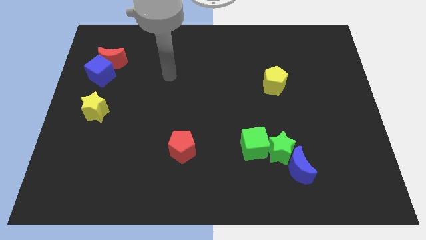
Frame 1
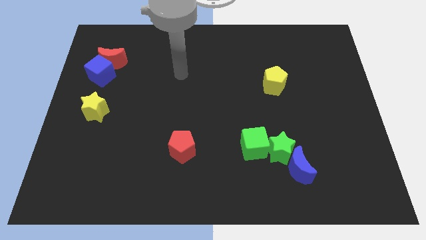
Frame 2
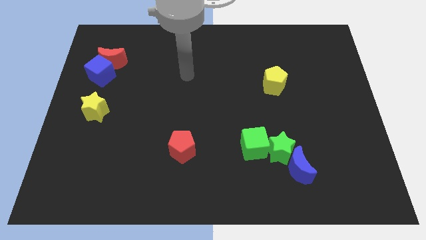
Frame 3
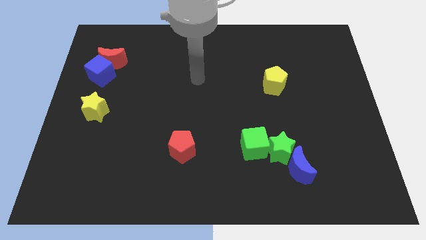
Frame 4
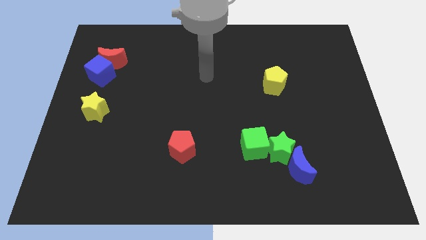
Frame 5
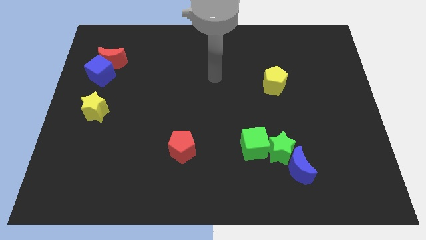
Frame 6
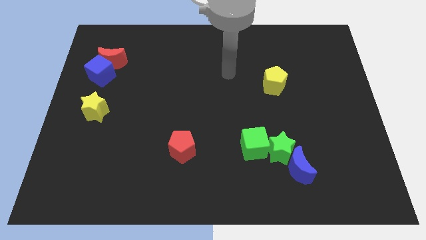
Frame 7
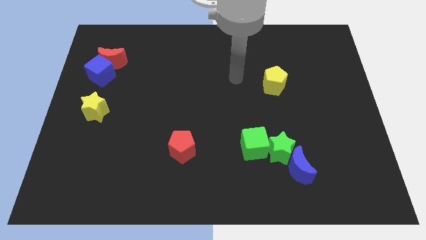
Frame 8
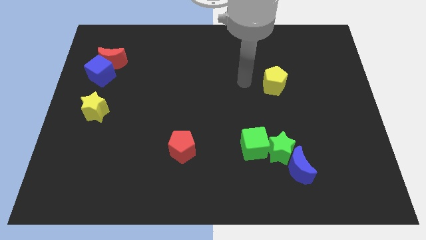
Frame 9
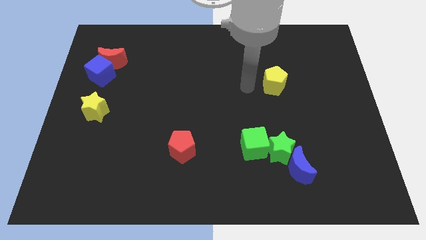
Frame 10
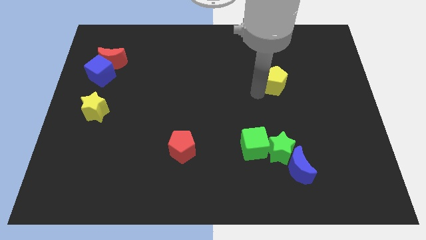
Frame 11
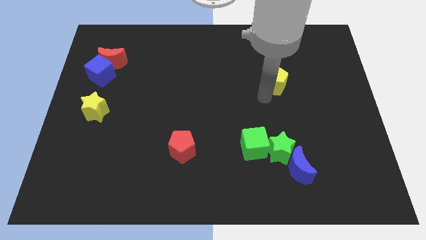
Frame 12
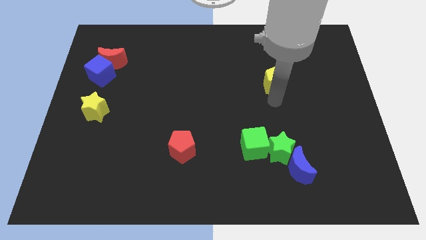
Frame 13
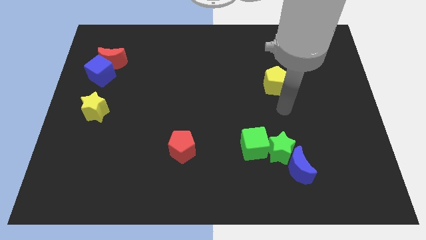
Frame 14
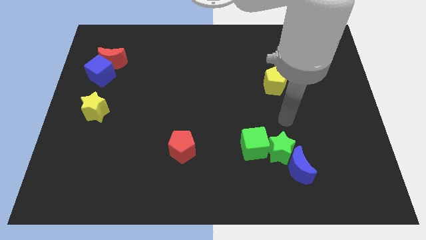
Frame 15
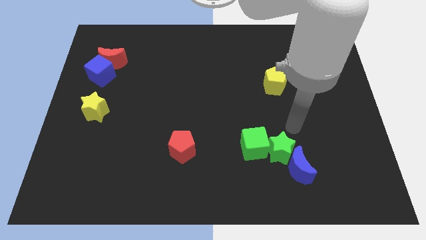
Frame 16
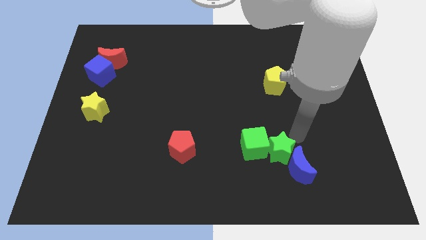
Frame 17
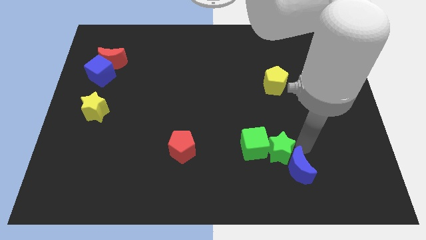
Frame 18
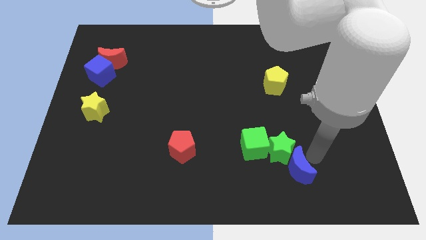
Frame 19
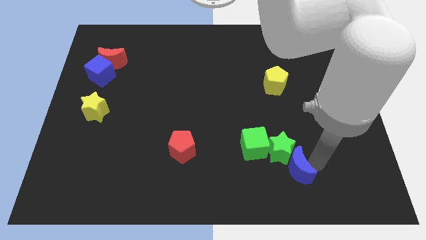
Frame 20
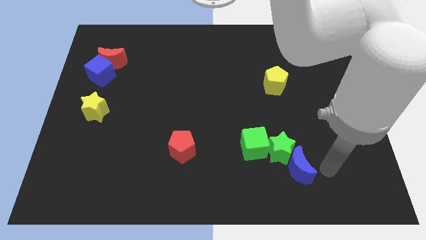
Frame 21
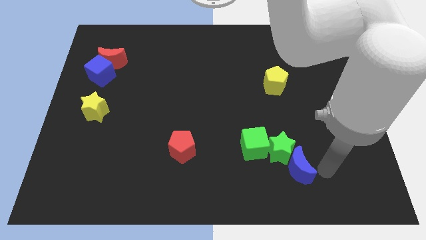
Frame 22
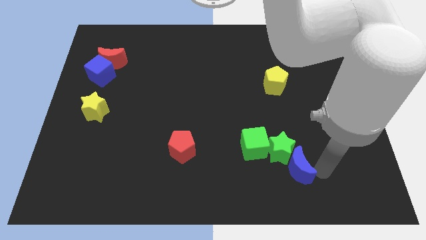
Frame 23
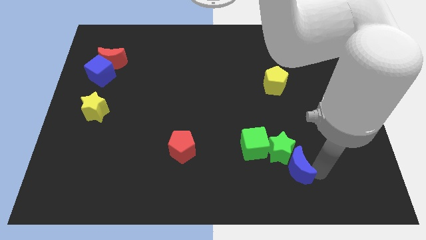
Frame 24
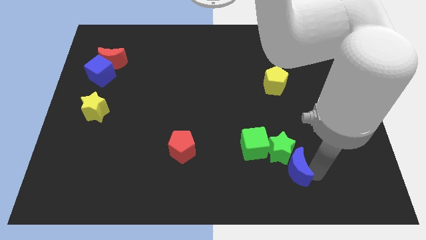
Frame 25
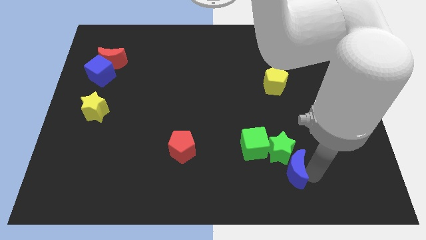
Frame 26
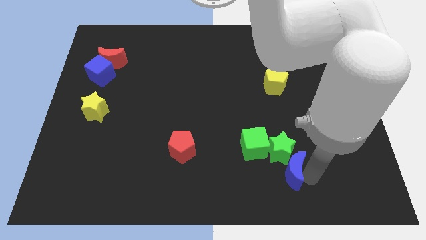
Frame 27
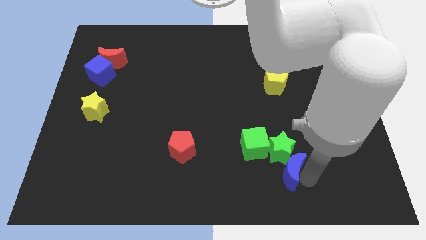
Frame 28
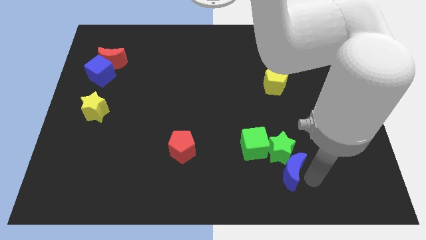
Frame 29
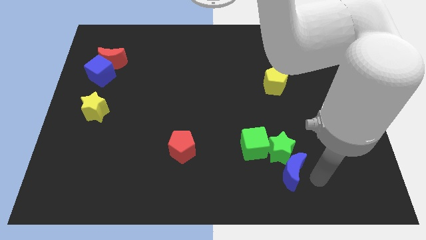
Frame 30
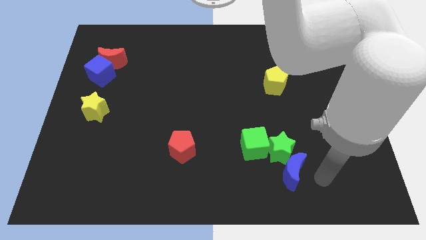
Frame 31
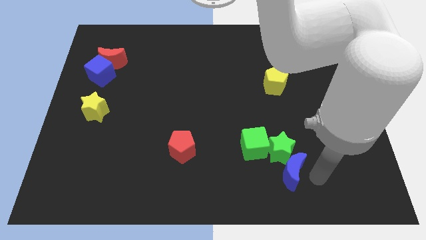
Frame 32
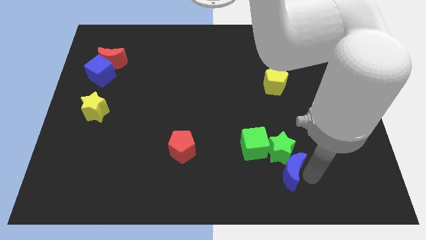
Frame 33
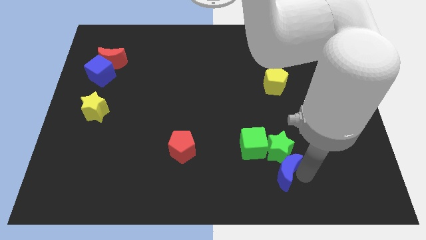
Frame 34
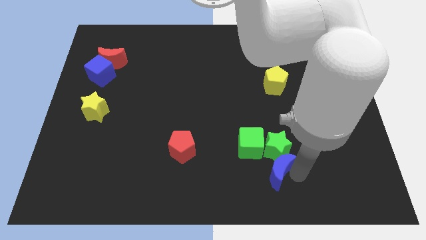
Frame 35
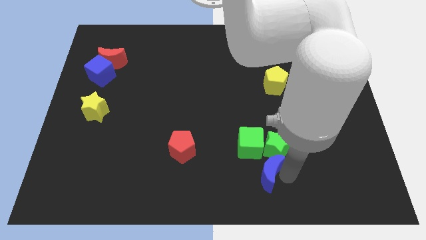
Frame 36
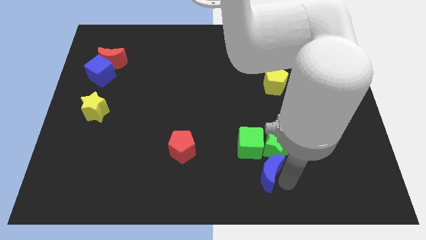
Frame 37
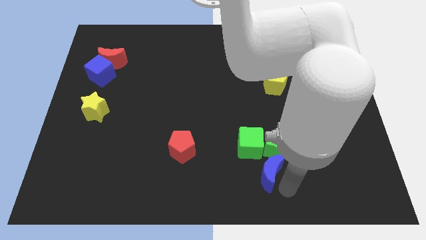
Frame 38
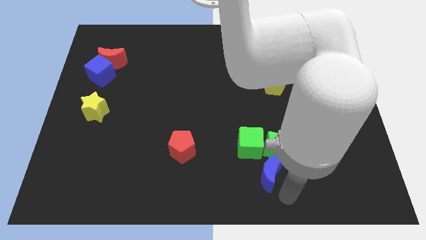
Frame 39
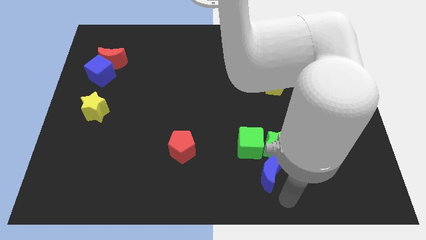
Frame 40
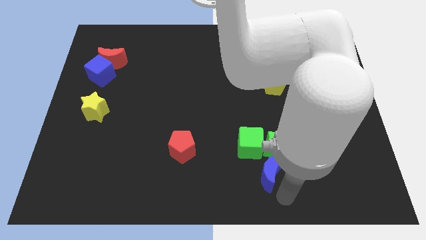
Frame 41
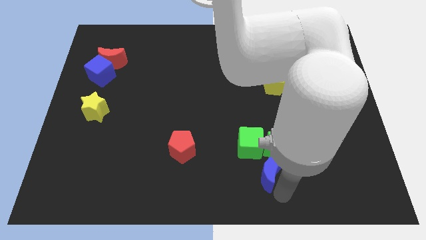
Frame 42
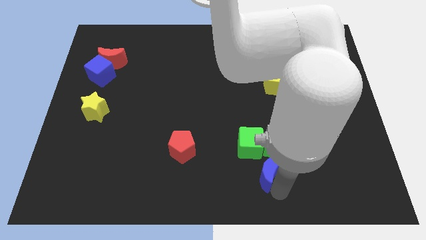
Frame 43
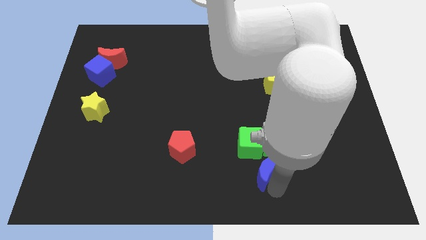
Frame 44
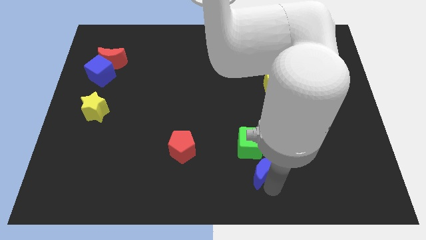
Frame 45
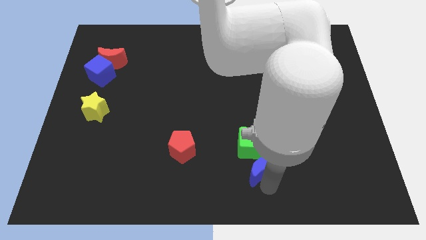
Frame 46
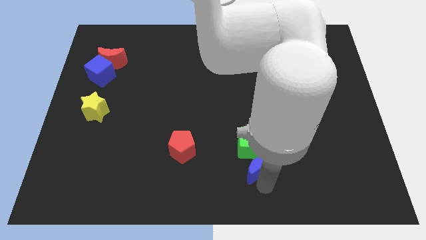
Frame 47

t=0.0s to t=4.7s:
put the blue moon close to the green cube

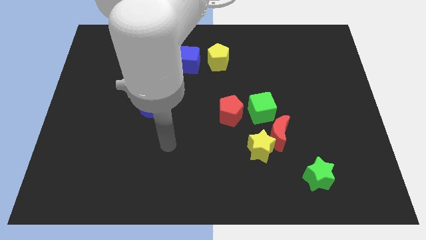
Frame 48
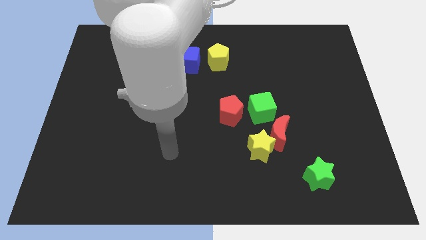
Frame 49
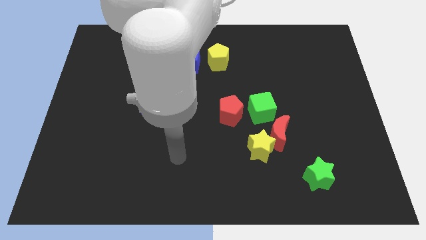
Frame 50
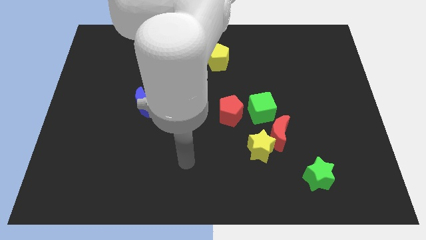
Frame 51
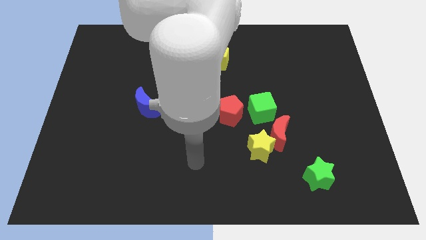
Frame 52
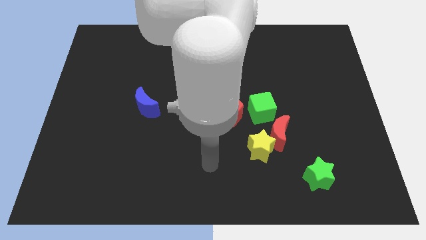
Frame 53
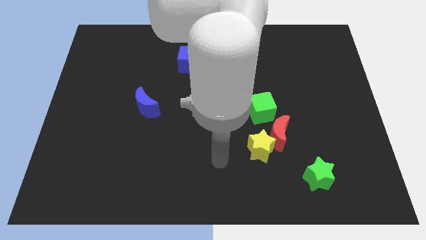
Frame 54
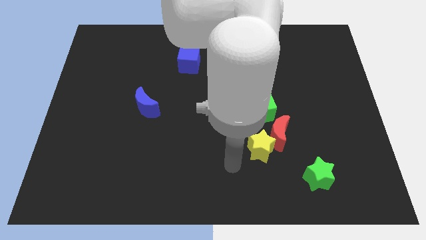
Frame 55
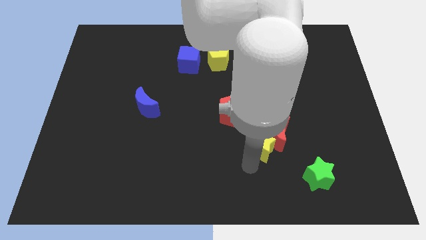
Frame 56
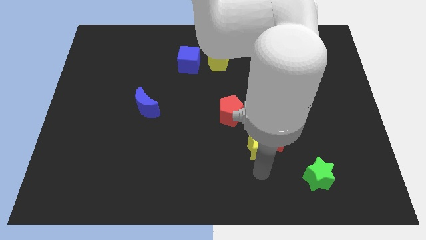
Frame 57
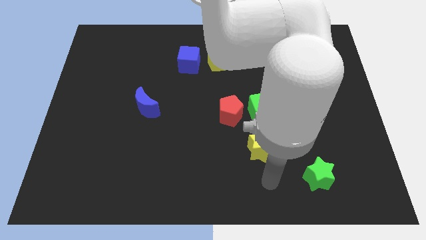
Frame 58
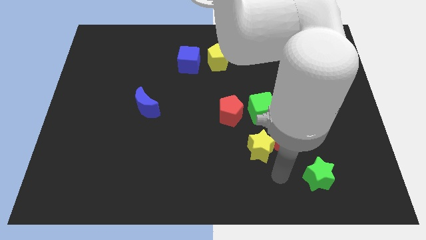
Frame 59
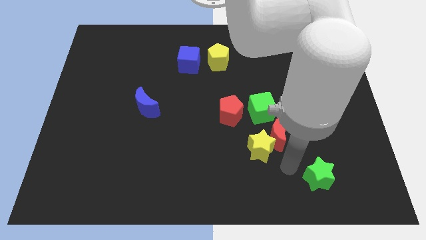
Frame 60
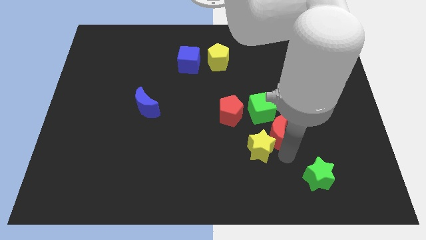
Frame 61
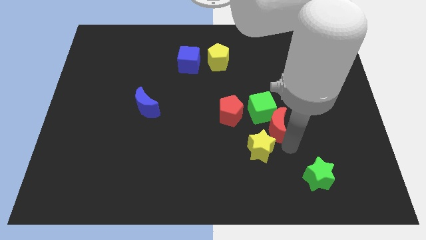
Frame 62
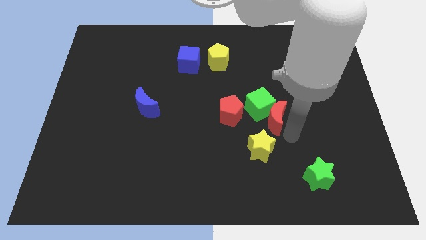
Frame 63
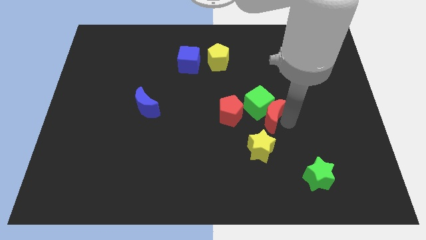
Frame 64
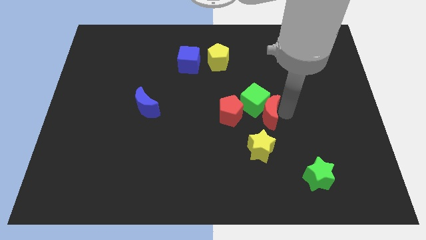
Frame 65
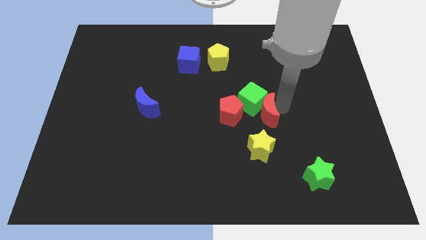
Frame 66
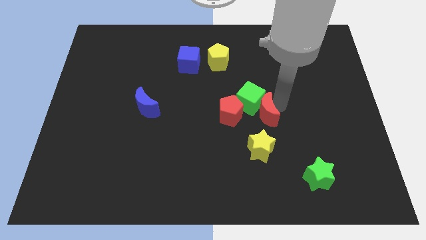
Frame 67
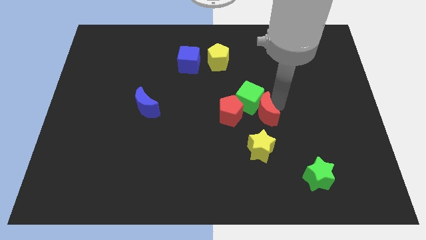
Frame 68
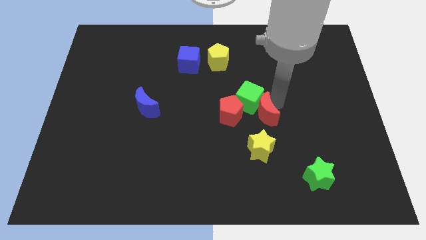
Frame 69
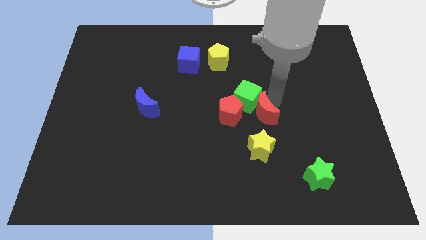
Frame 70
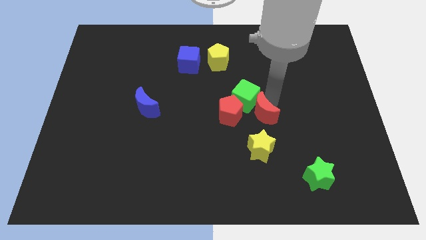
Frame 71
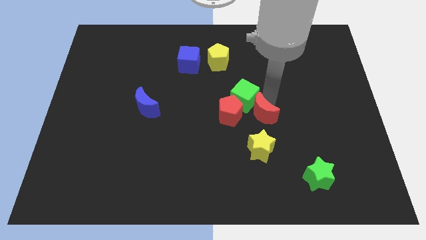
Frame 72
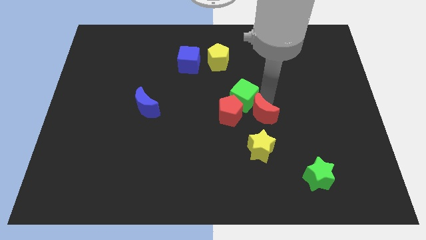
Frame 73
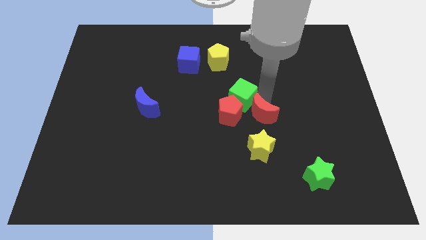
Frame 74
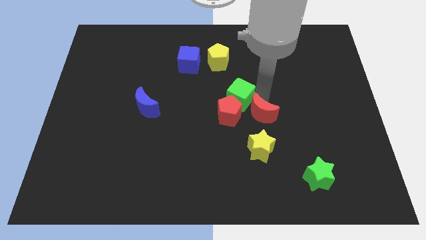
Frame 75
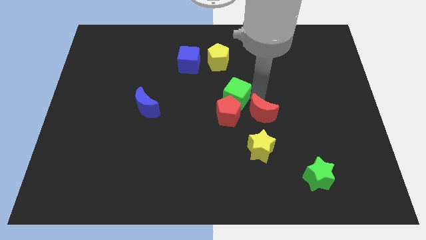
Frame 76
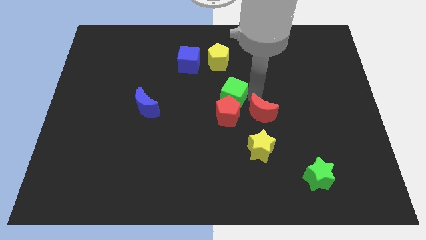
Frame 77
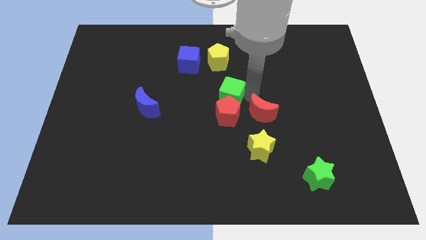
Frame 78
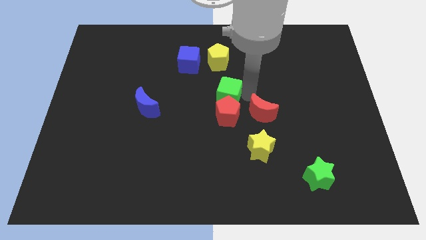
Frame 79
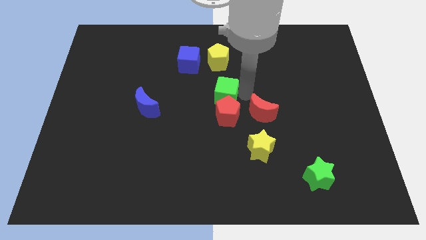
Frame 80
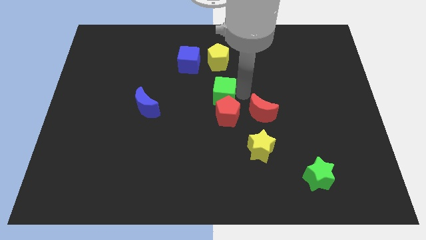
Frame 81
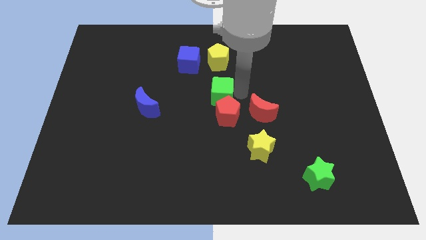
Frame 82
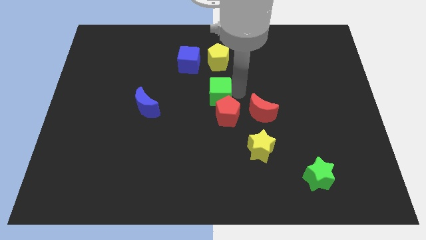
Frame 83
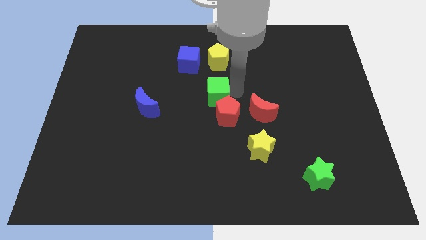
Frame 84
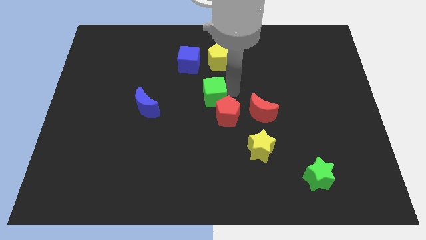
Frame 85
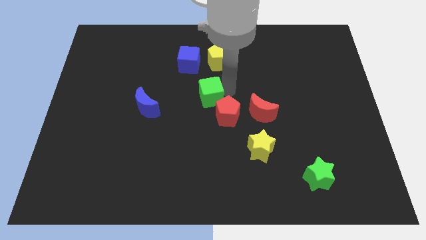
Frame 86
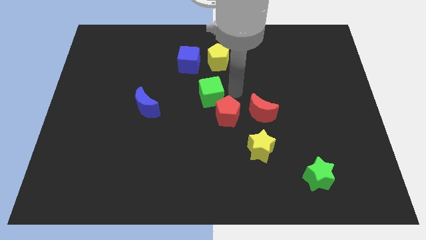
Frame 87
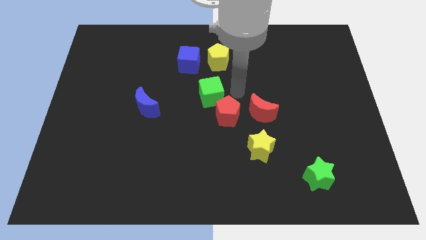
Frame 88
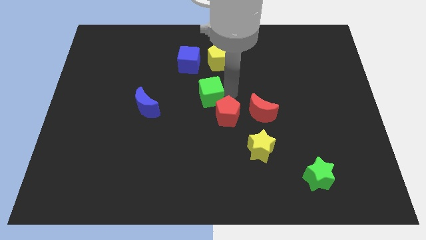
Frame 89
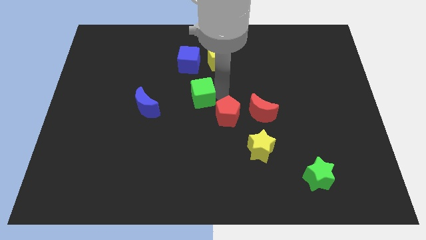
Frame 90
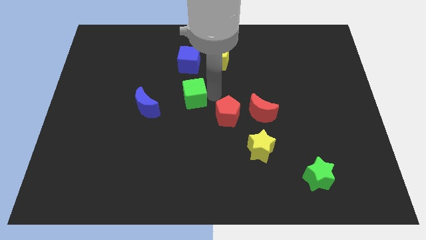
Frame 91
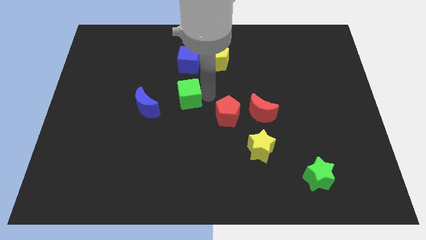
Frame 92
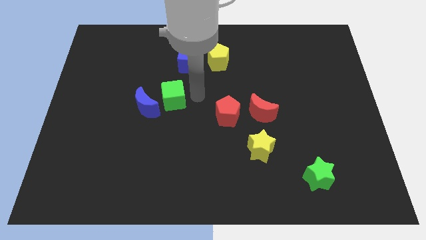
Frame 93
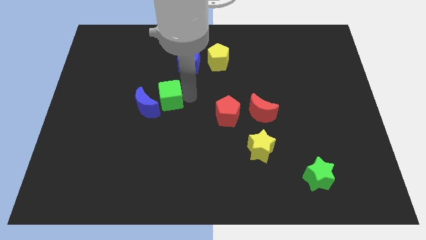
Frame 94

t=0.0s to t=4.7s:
move the green cube to the blue moon
